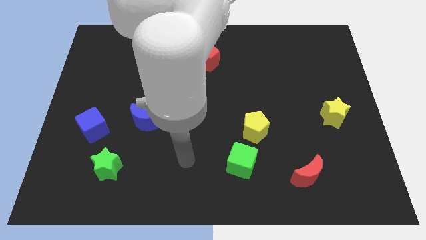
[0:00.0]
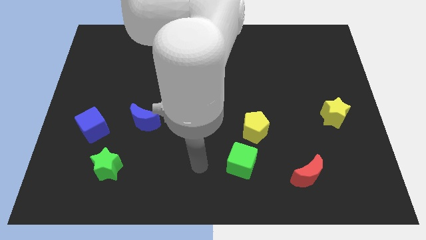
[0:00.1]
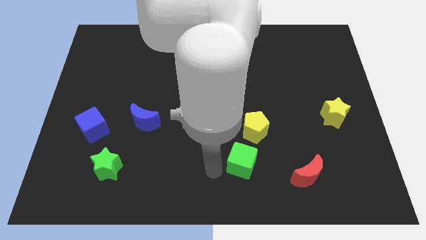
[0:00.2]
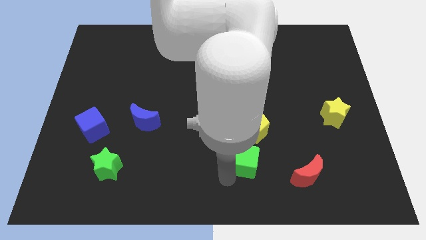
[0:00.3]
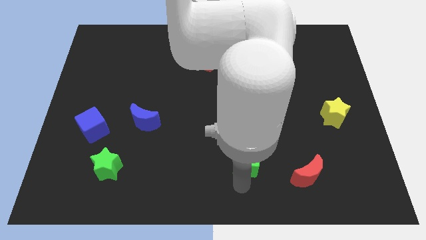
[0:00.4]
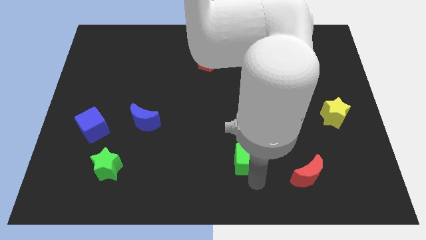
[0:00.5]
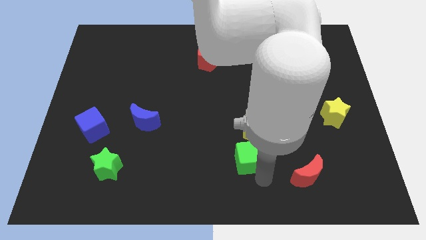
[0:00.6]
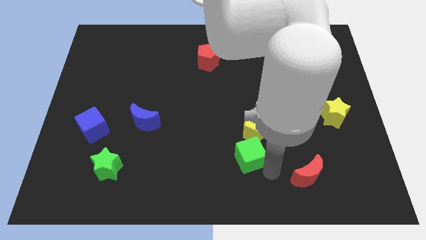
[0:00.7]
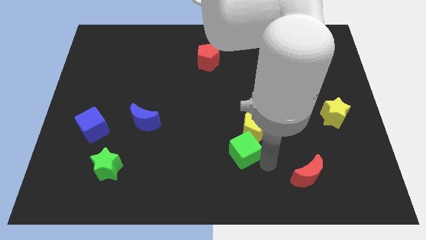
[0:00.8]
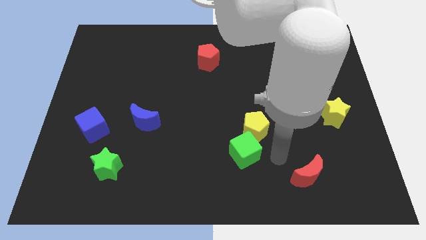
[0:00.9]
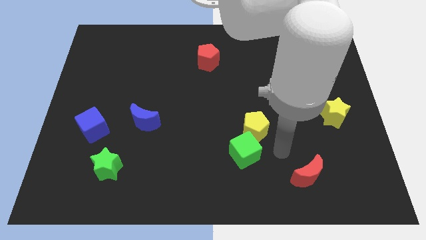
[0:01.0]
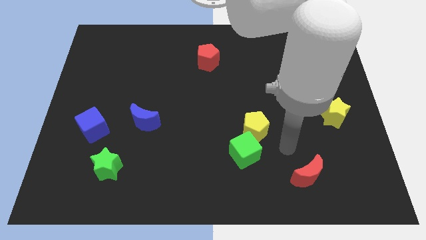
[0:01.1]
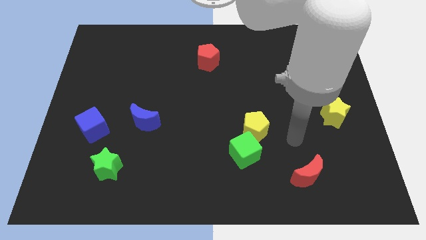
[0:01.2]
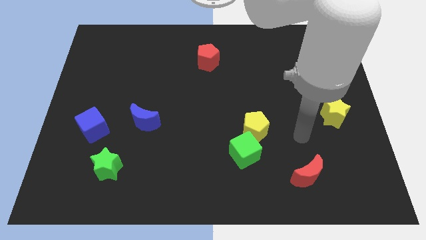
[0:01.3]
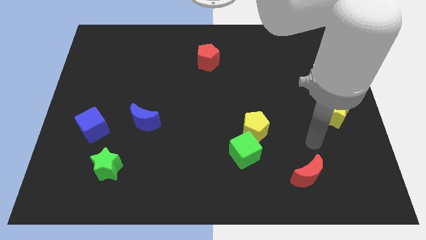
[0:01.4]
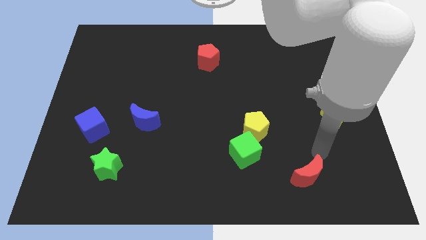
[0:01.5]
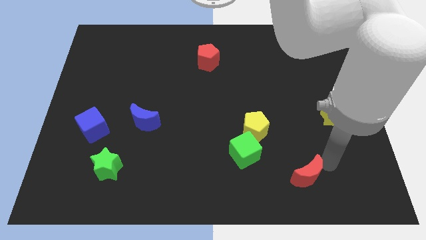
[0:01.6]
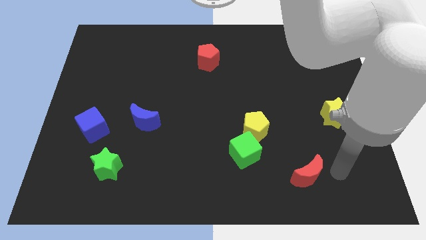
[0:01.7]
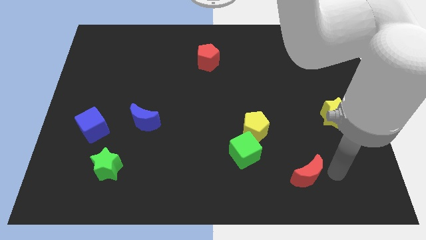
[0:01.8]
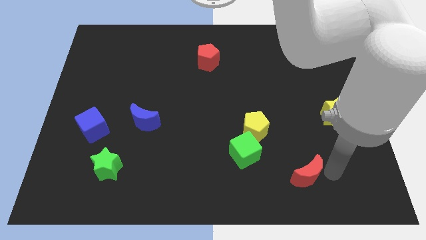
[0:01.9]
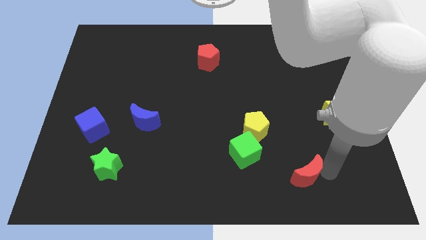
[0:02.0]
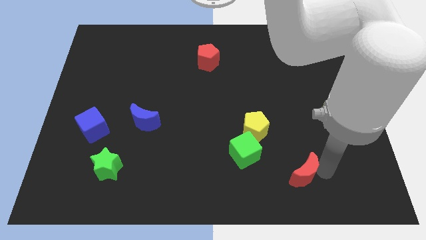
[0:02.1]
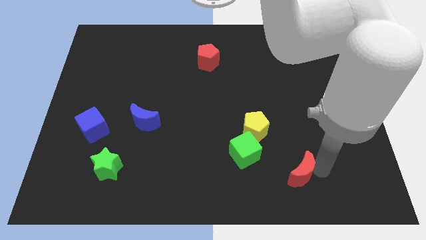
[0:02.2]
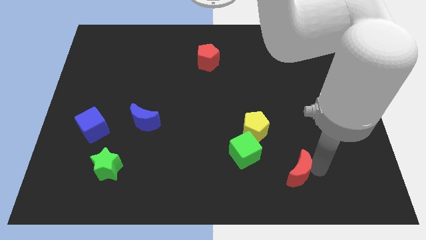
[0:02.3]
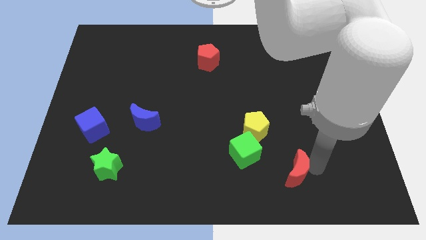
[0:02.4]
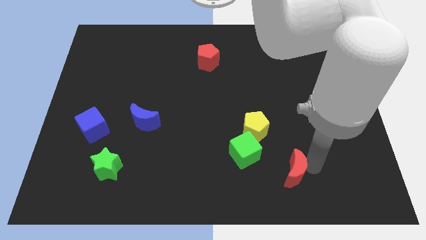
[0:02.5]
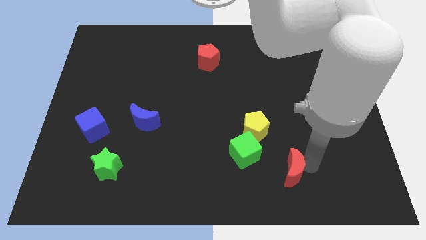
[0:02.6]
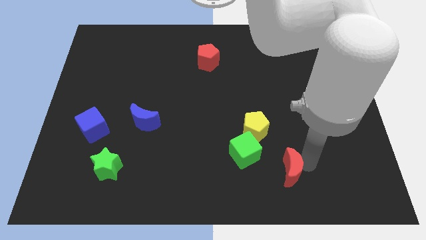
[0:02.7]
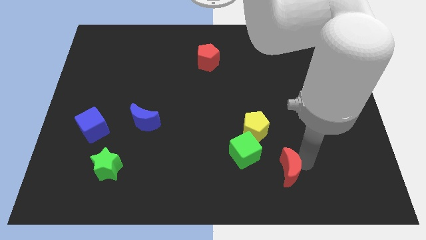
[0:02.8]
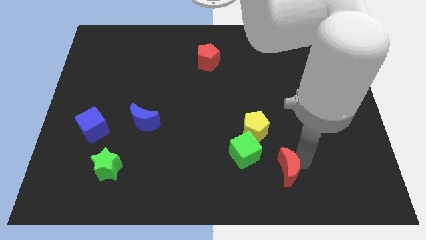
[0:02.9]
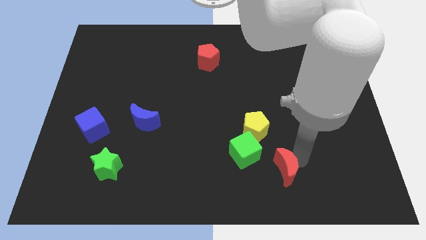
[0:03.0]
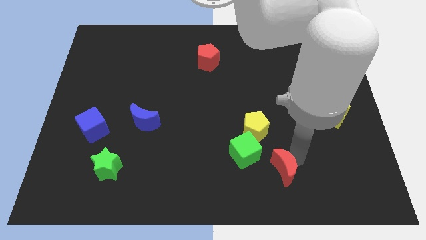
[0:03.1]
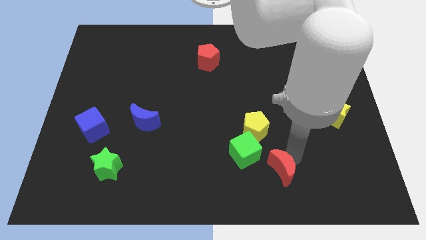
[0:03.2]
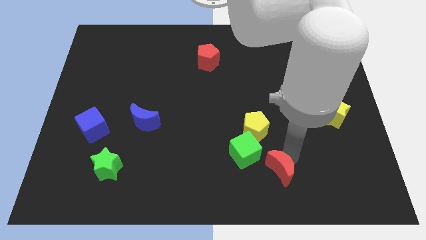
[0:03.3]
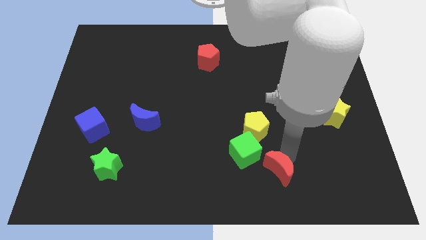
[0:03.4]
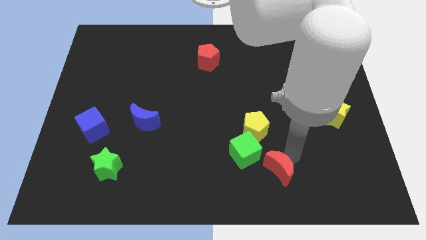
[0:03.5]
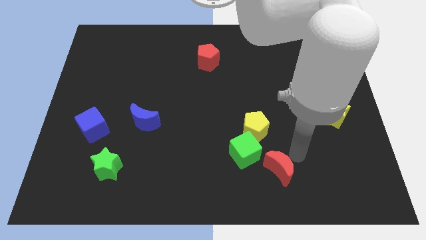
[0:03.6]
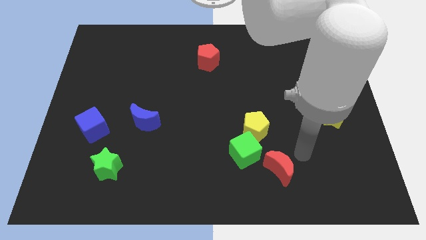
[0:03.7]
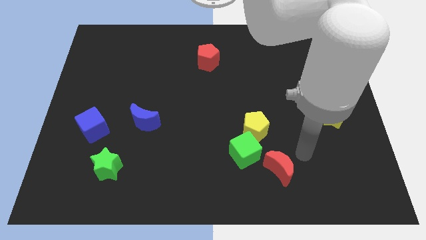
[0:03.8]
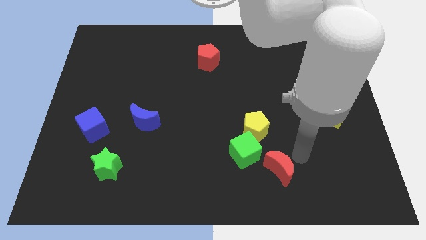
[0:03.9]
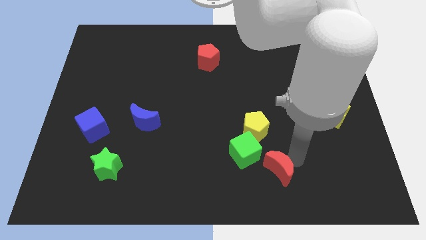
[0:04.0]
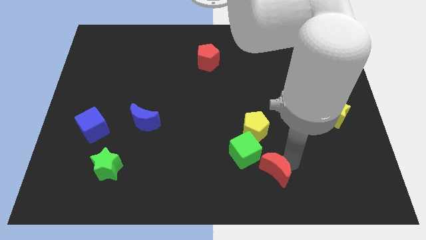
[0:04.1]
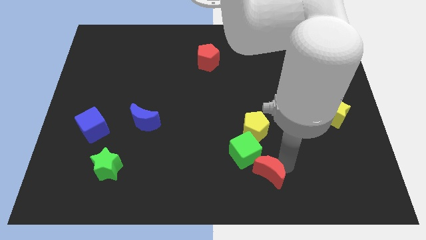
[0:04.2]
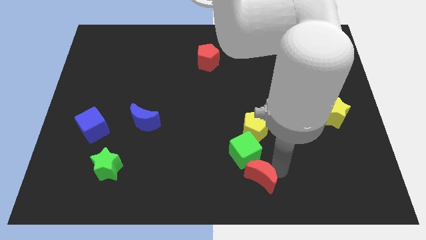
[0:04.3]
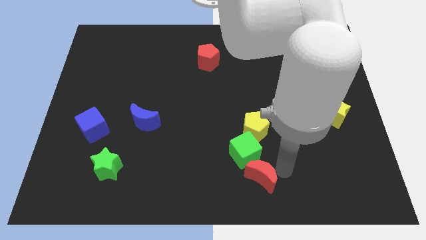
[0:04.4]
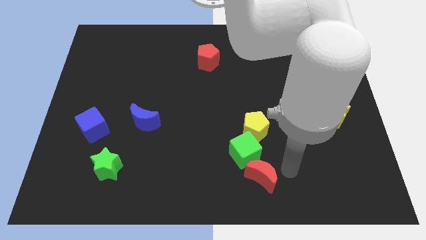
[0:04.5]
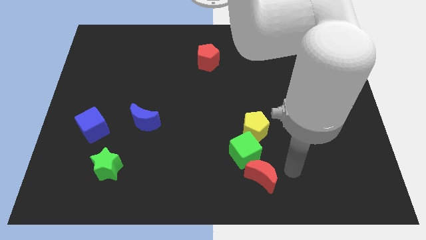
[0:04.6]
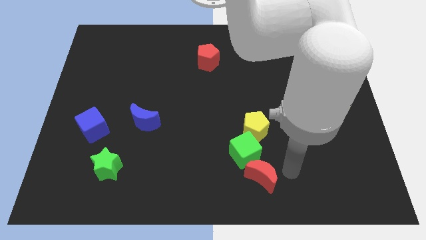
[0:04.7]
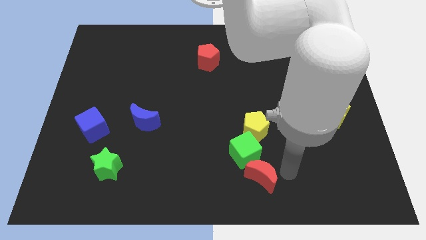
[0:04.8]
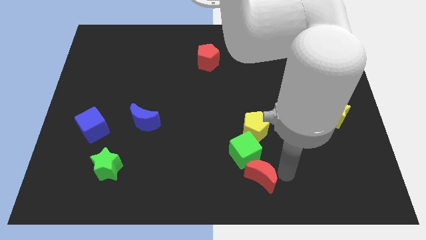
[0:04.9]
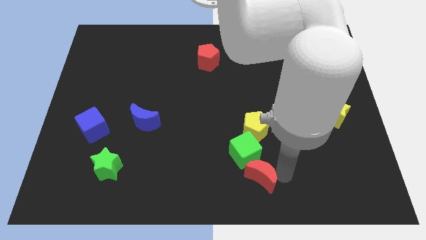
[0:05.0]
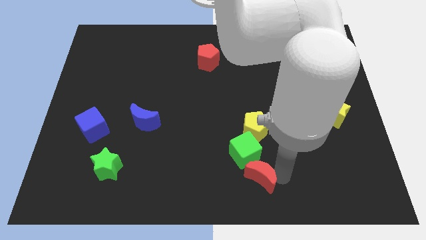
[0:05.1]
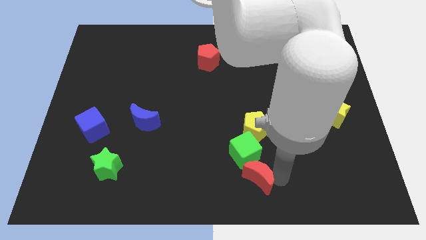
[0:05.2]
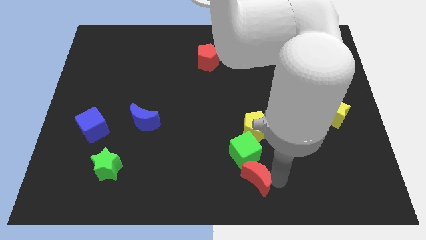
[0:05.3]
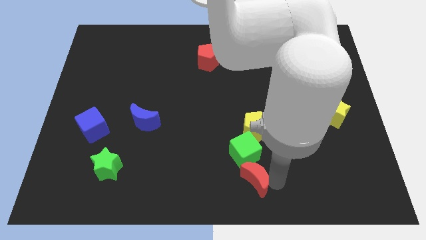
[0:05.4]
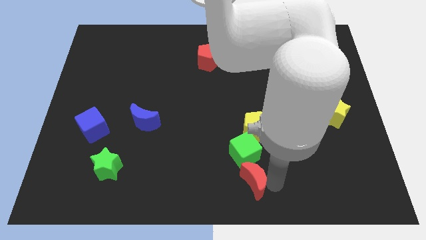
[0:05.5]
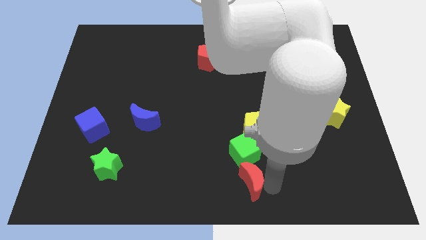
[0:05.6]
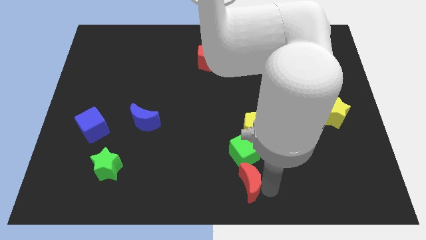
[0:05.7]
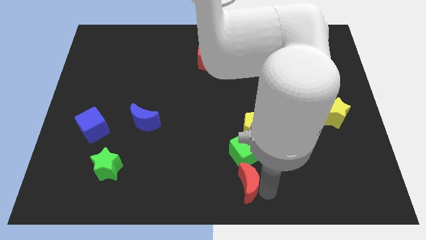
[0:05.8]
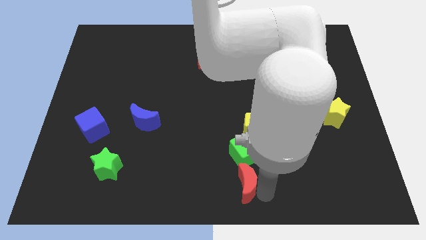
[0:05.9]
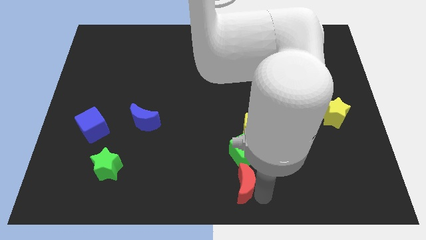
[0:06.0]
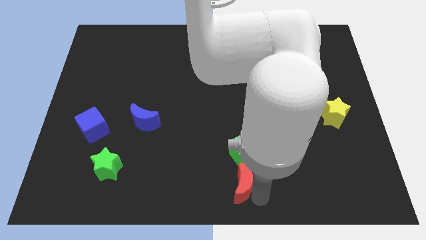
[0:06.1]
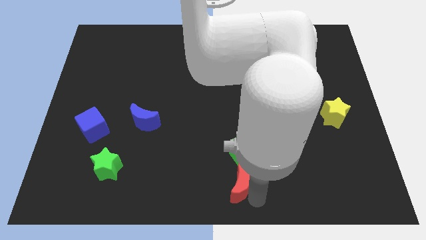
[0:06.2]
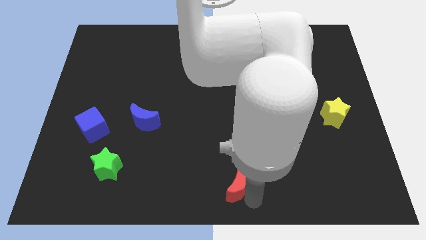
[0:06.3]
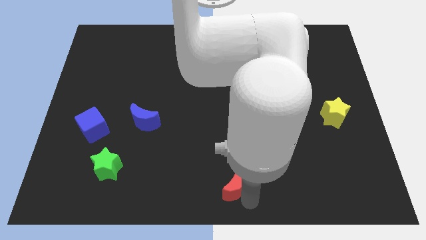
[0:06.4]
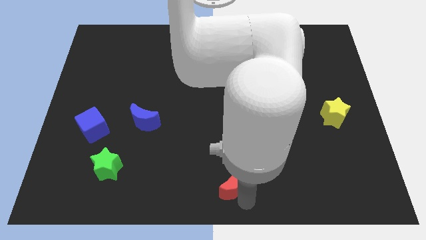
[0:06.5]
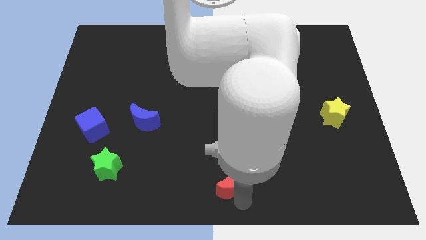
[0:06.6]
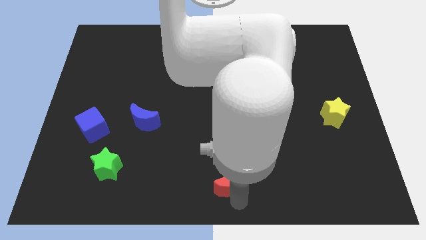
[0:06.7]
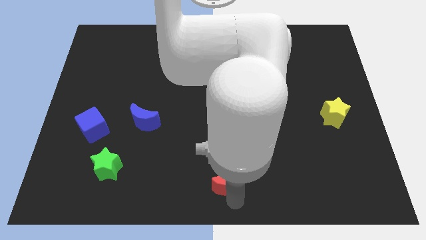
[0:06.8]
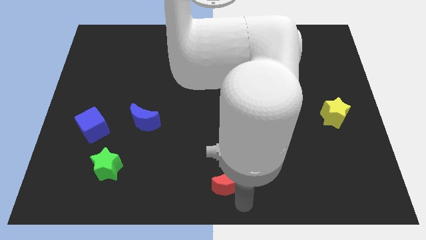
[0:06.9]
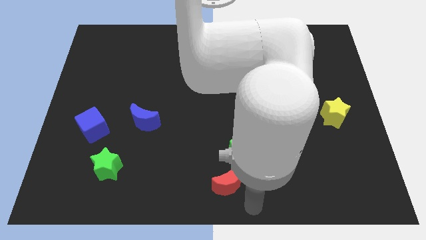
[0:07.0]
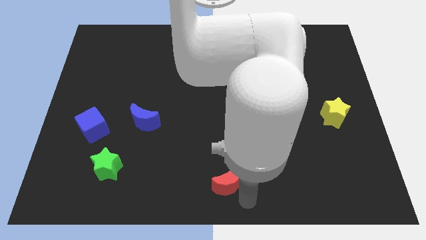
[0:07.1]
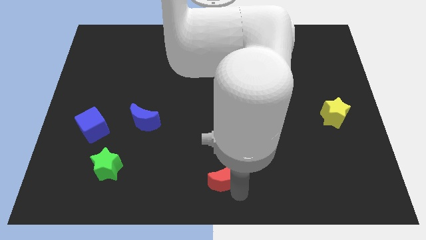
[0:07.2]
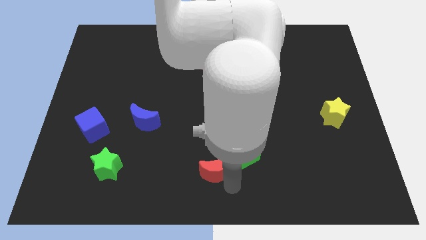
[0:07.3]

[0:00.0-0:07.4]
put the red moon left of the green cube
